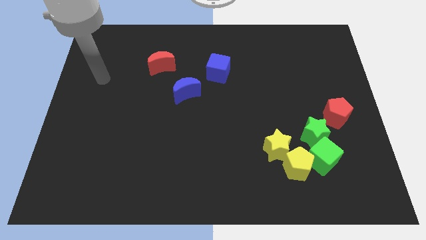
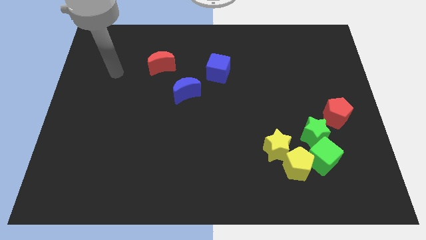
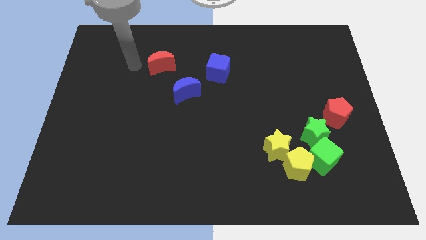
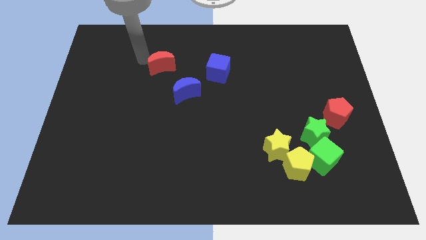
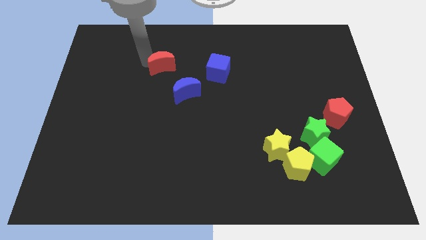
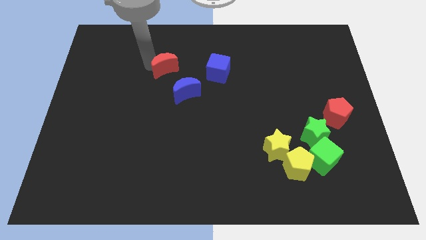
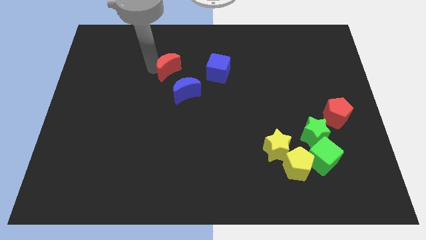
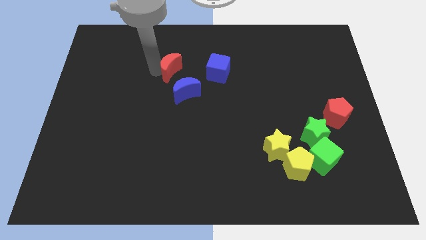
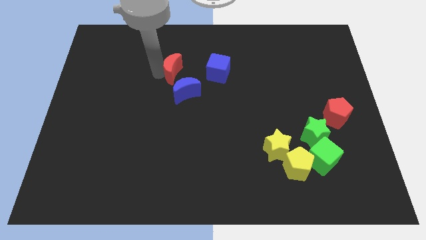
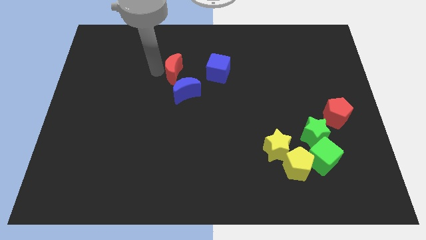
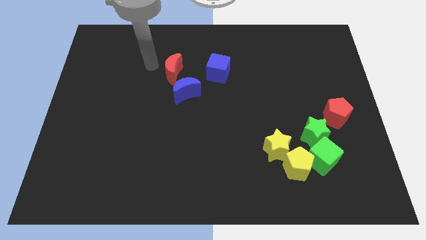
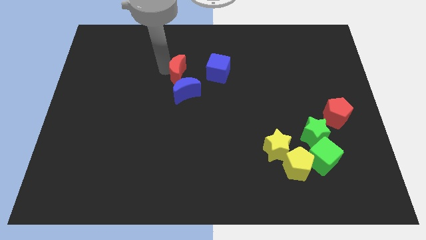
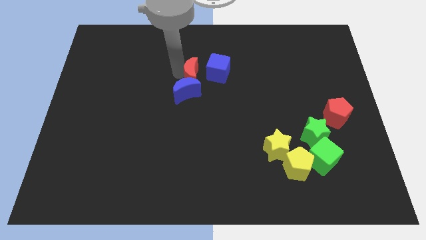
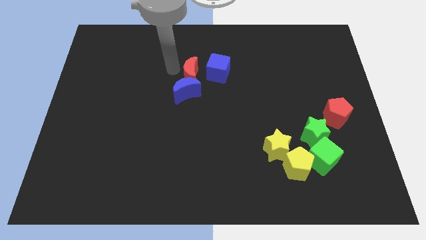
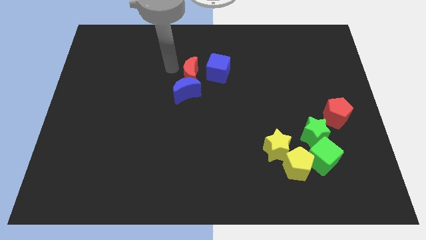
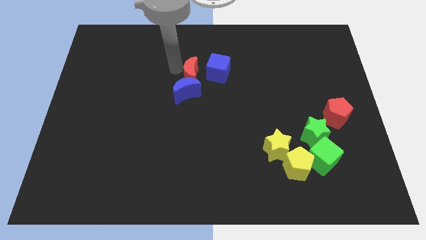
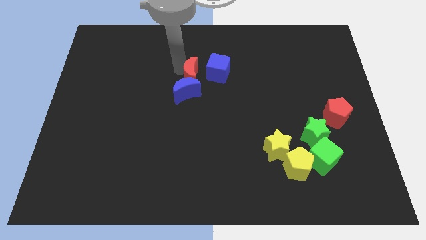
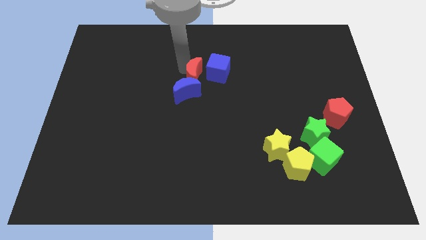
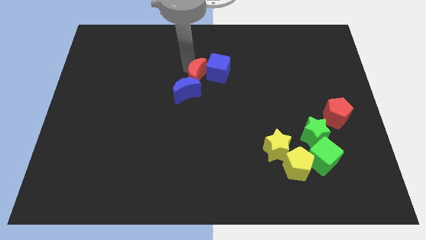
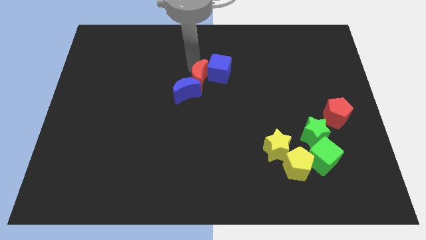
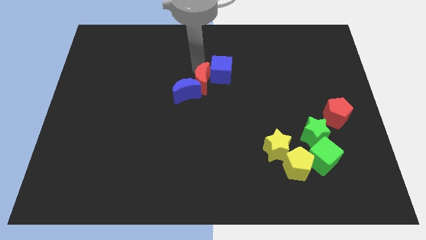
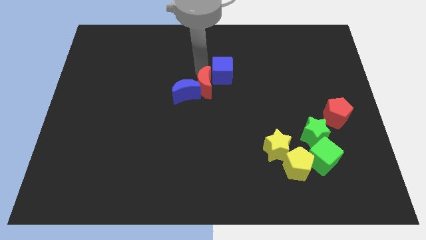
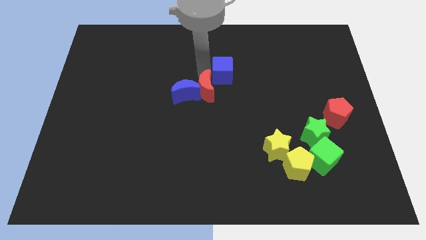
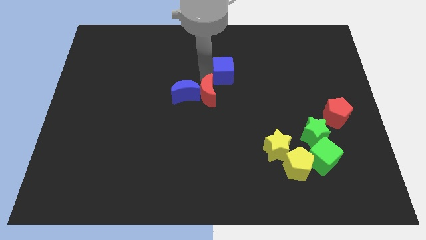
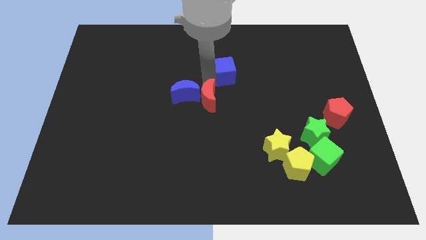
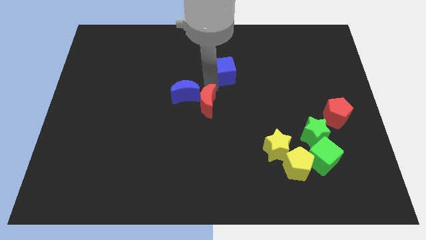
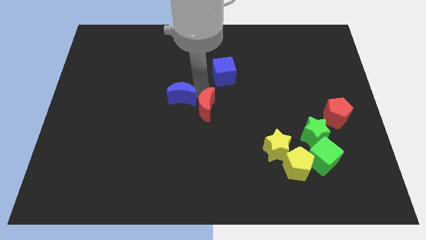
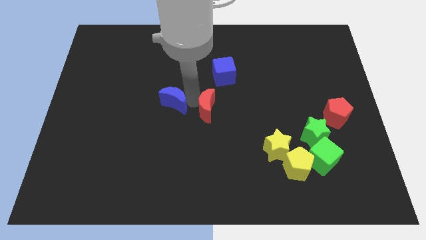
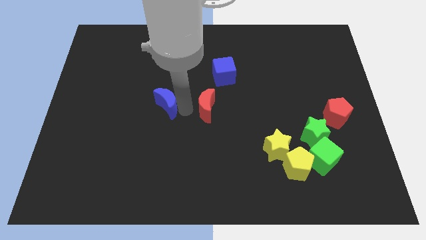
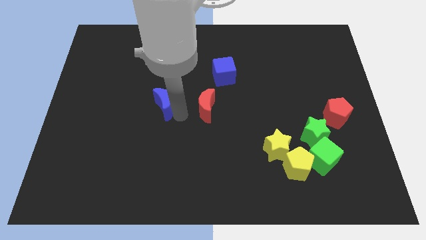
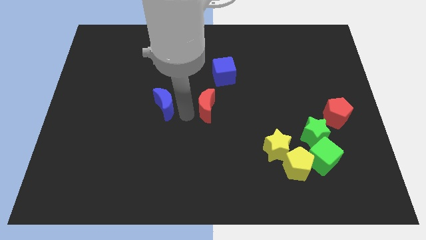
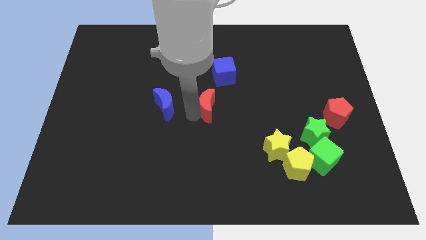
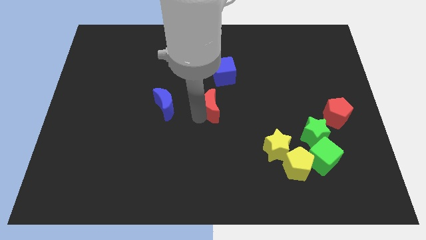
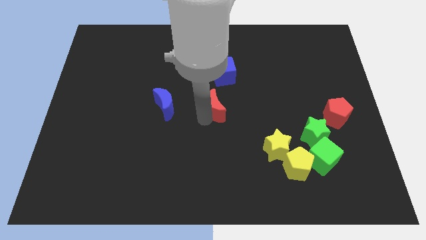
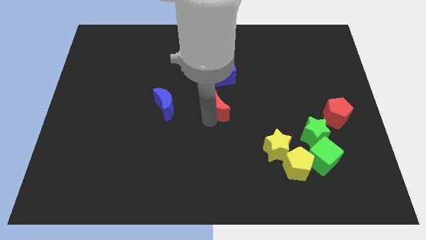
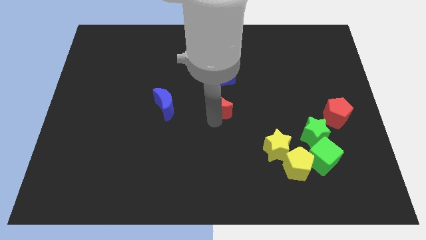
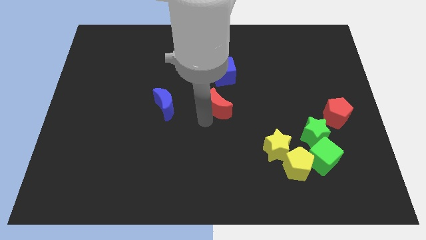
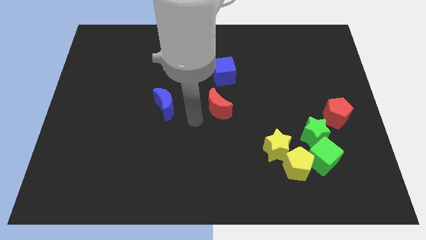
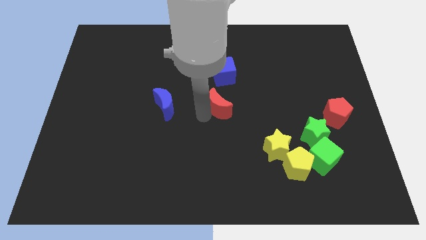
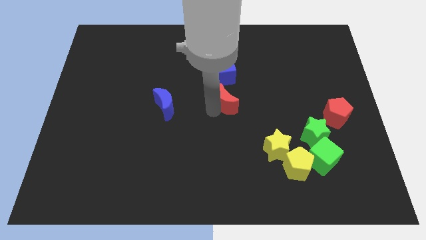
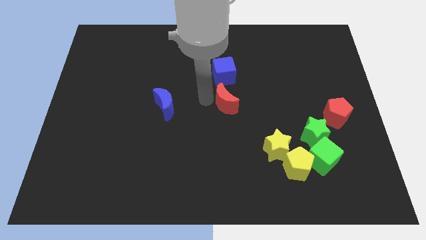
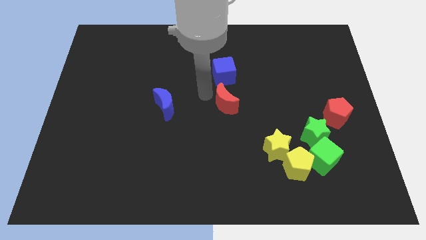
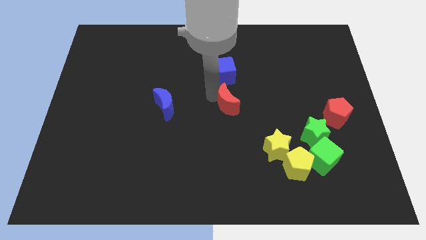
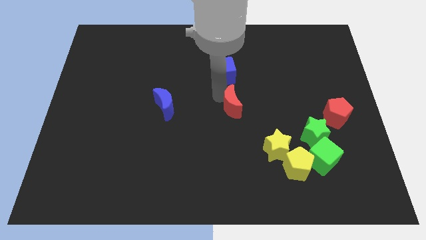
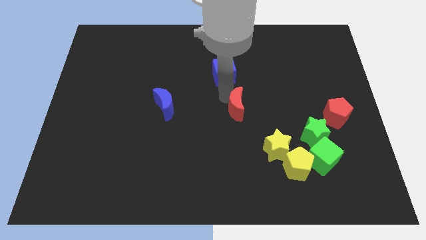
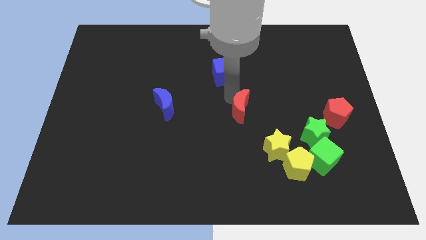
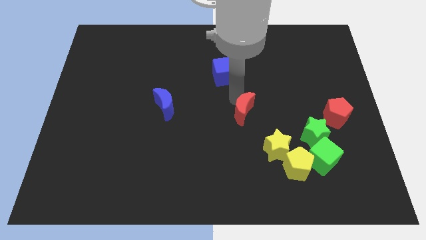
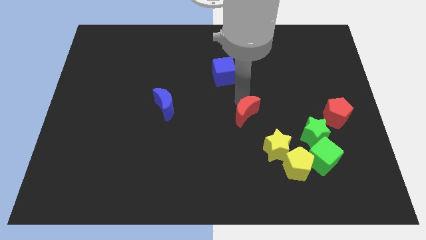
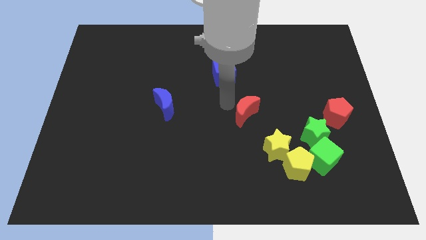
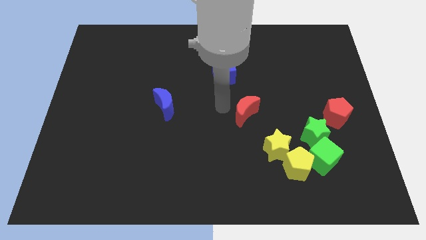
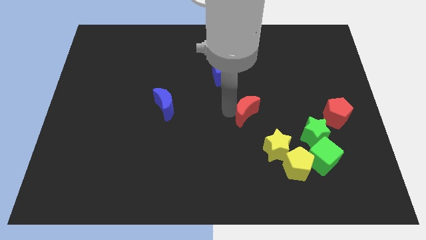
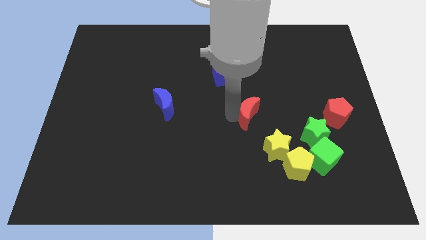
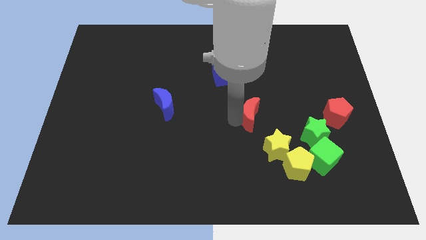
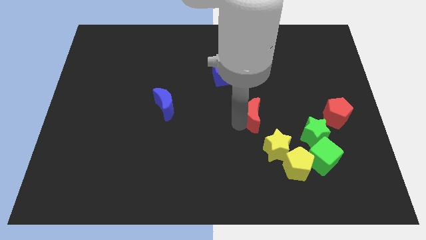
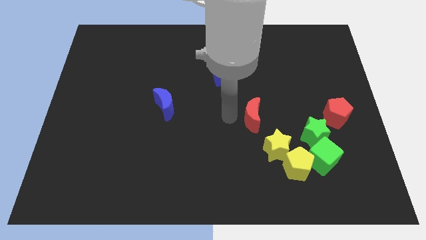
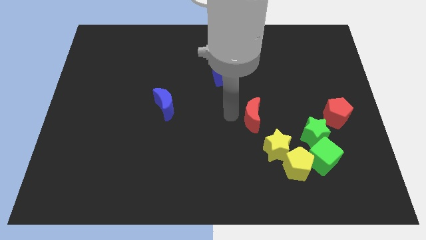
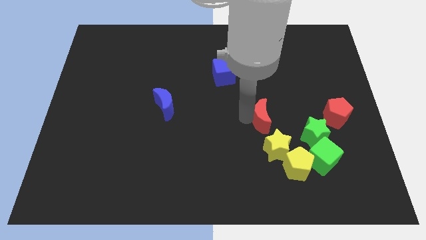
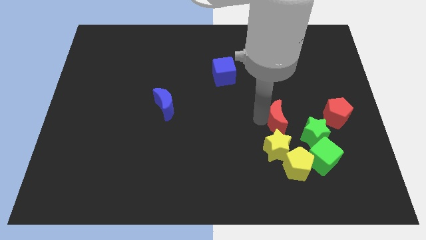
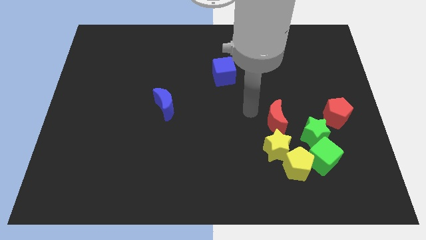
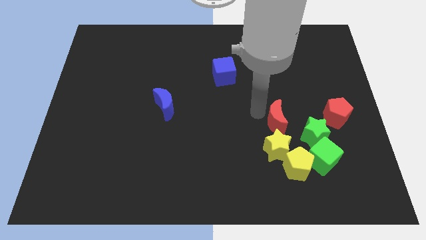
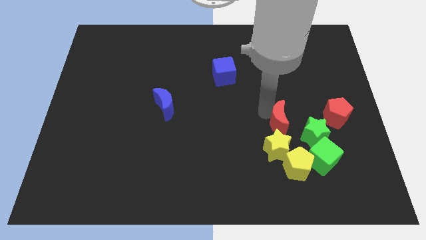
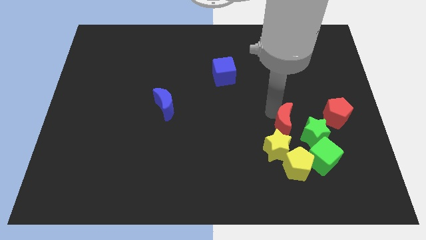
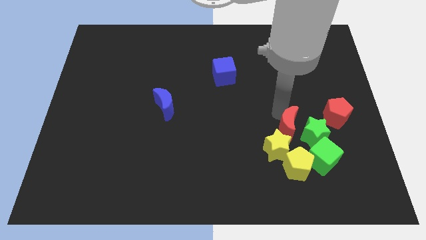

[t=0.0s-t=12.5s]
push the red moon towards the green star

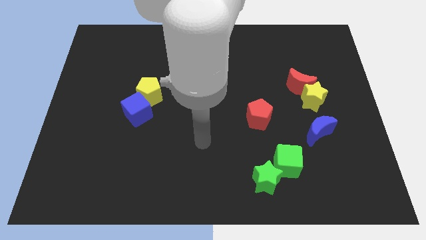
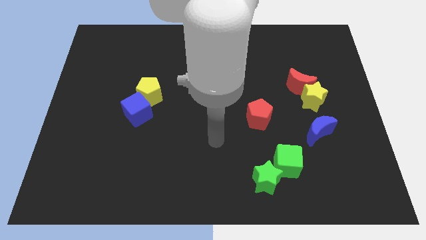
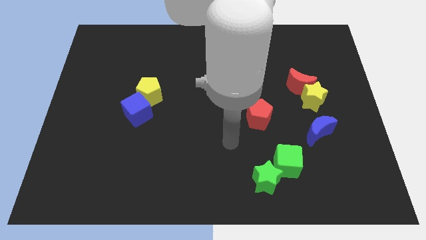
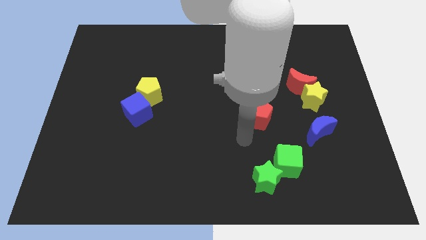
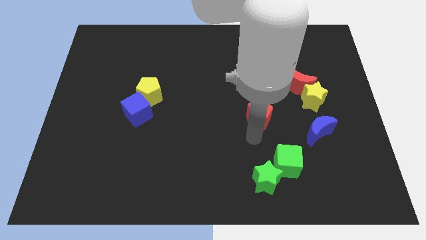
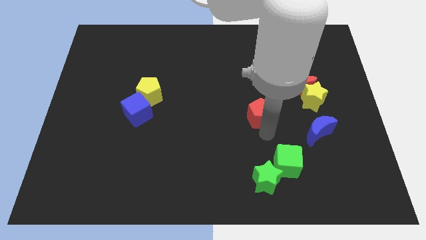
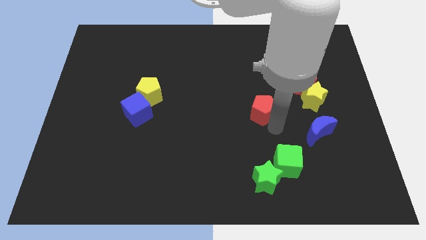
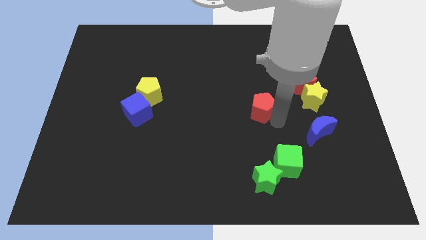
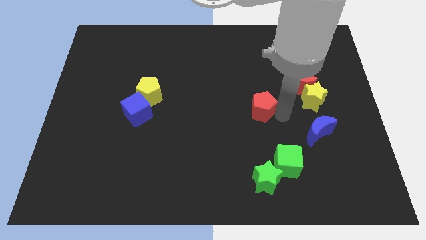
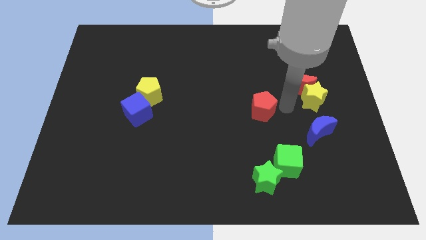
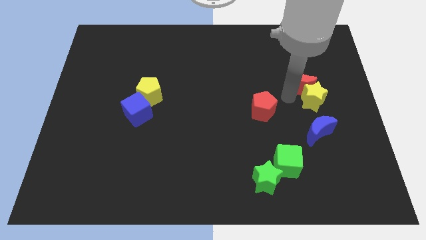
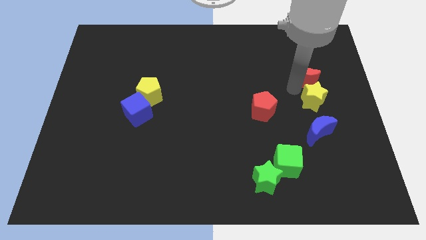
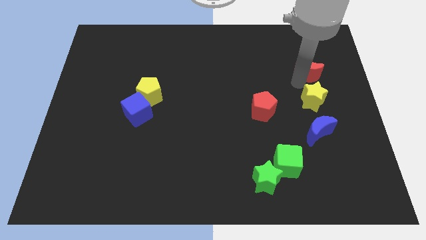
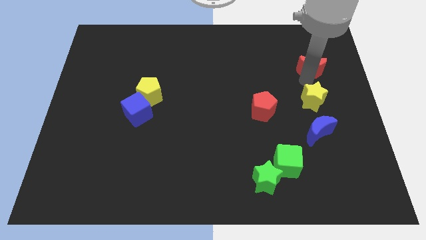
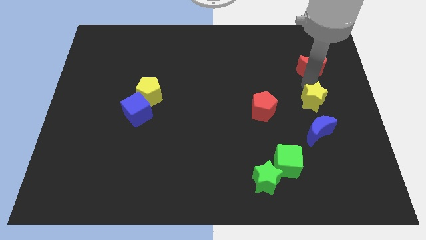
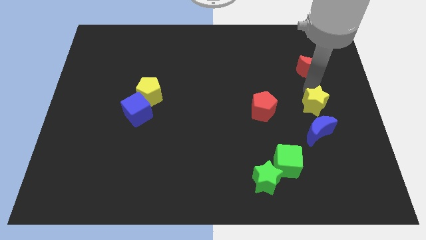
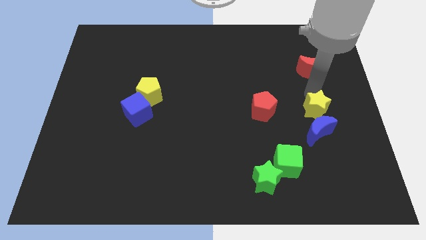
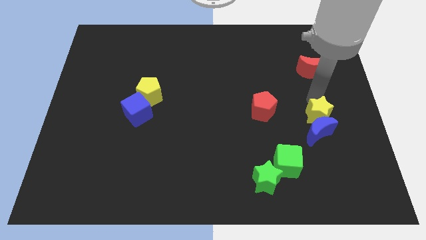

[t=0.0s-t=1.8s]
slide the yellow star close to the blue moon

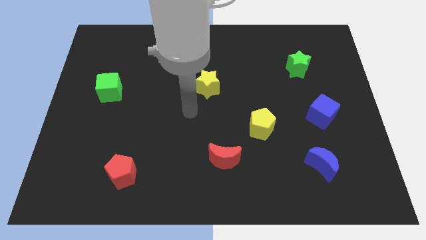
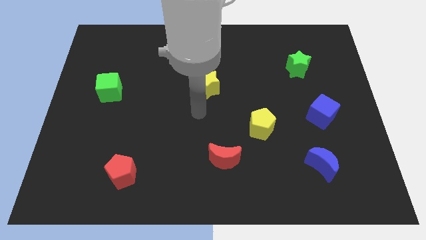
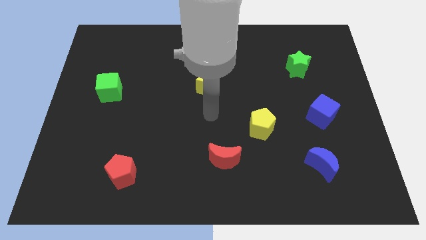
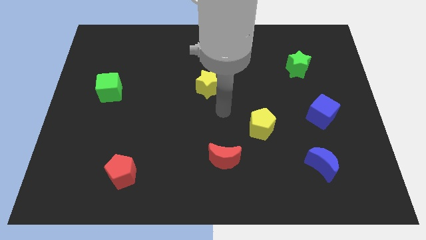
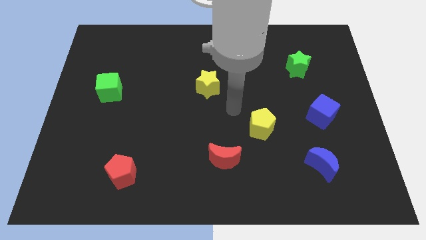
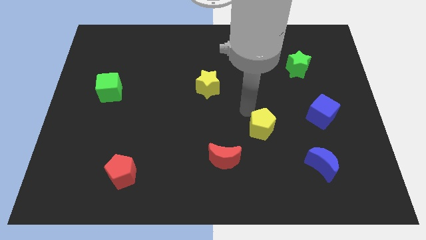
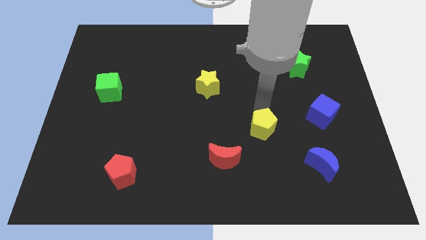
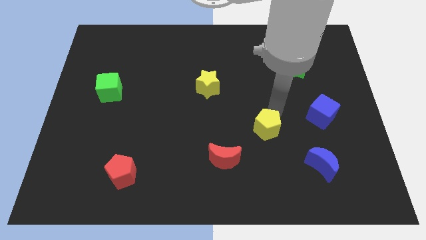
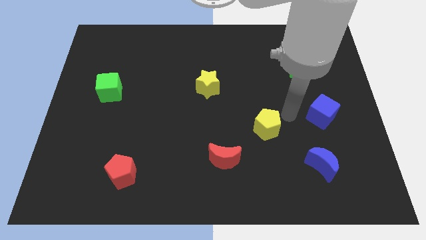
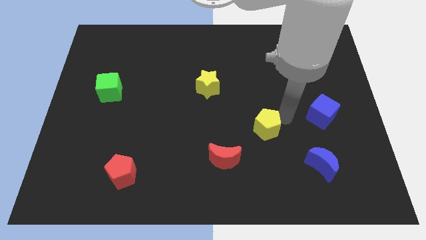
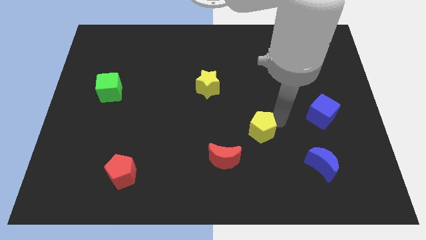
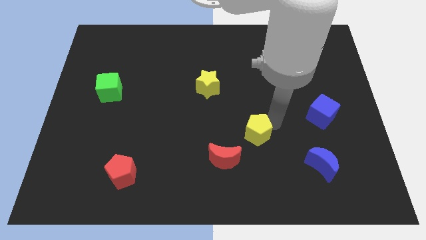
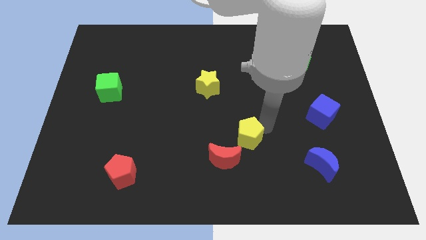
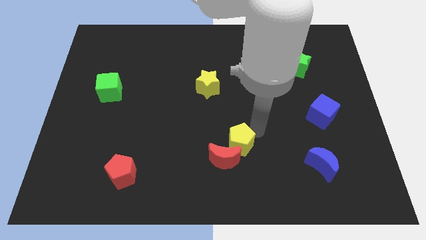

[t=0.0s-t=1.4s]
slide the yellow pentagon next to the red moon
